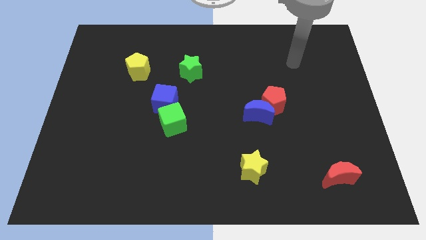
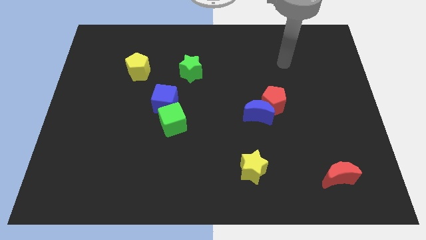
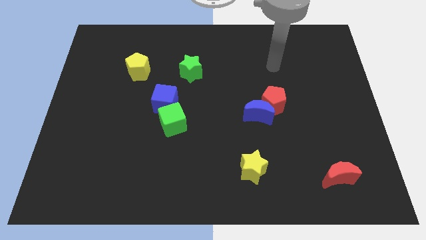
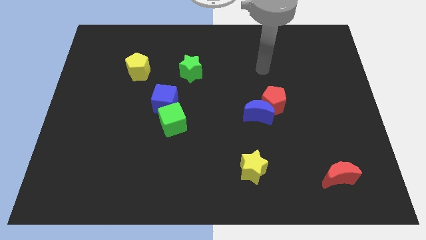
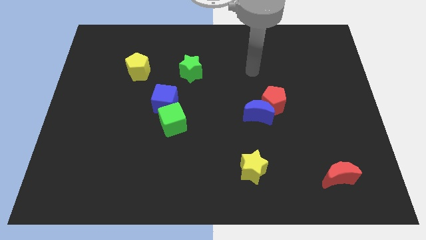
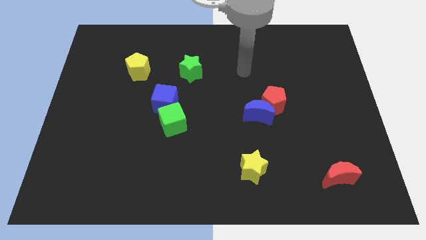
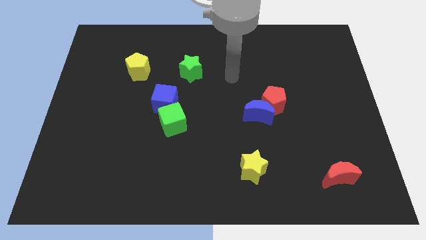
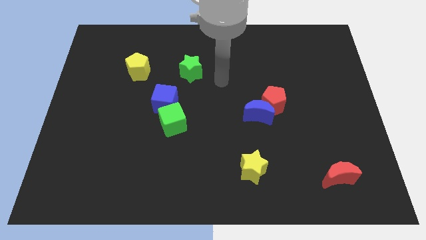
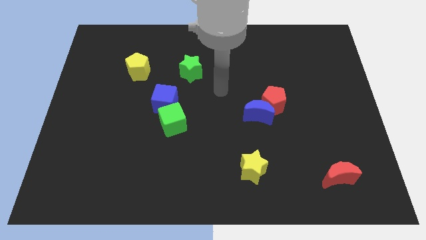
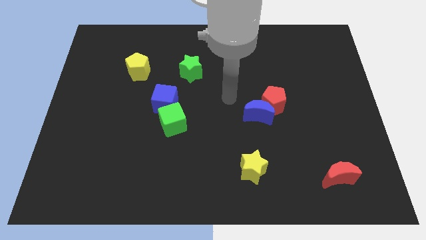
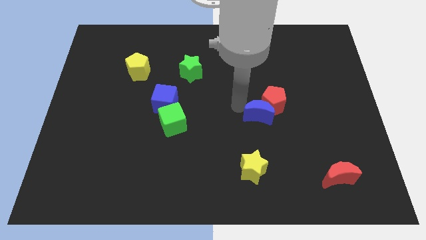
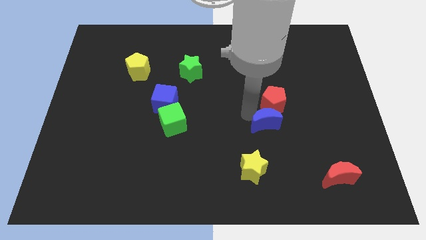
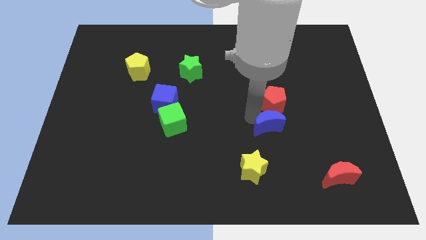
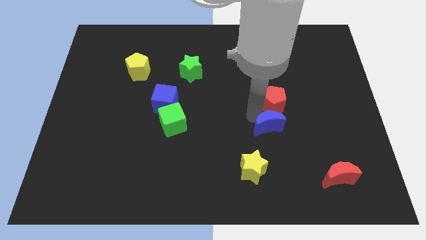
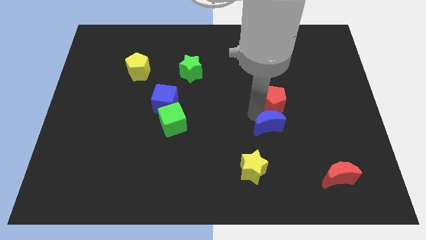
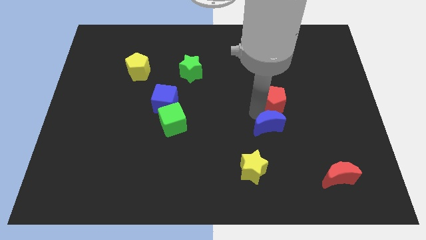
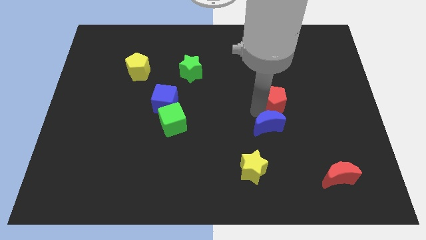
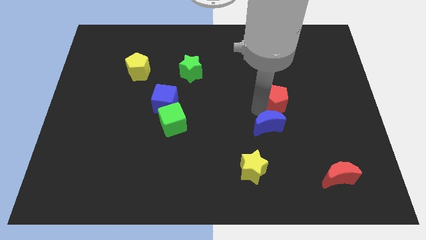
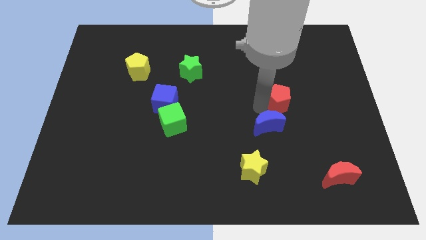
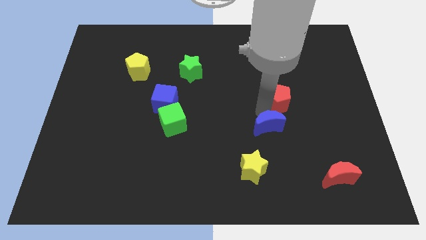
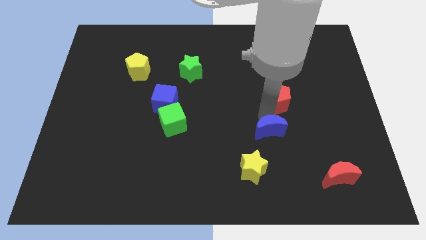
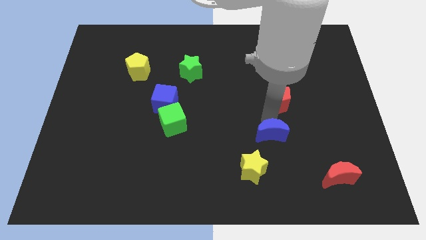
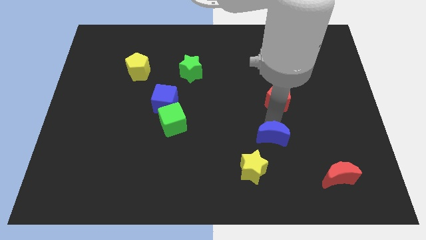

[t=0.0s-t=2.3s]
separate the red pentagon from the blue moon

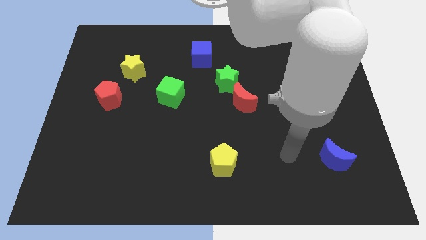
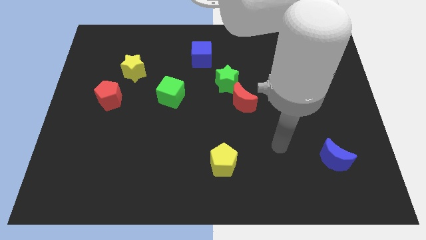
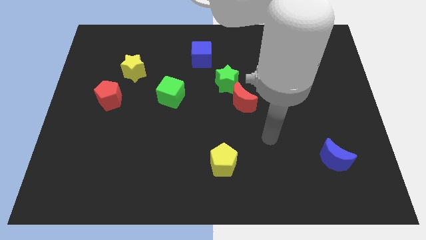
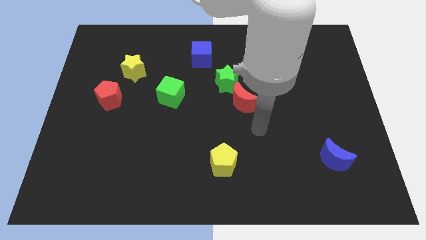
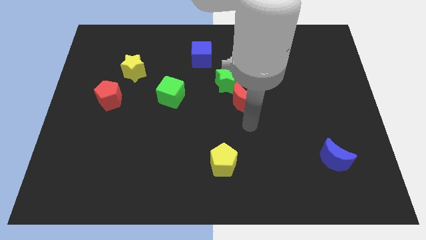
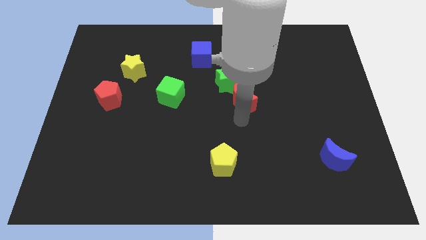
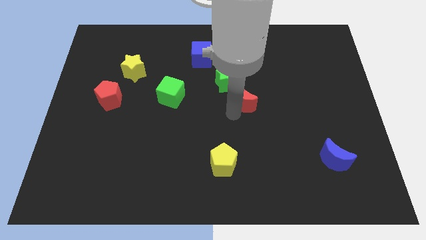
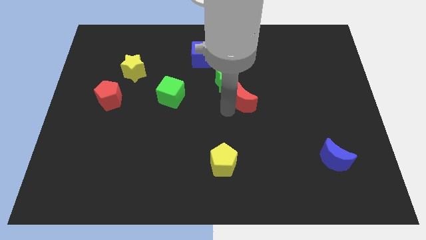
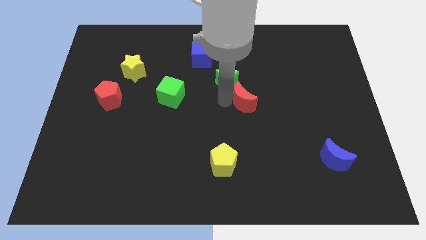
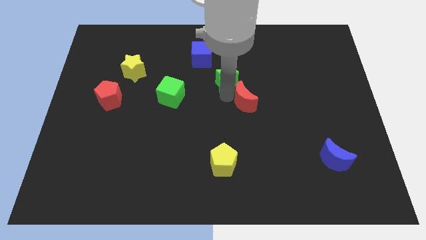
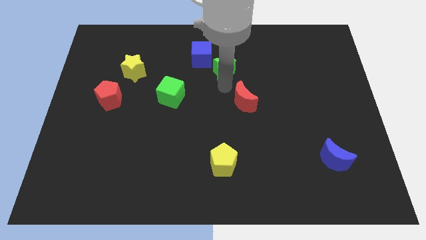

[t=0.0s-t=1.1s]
separate the red moon from the green star

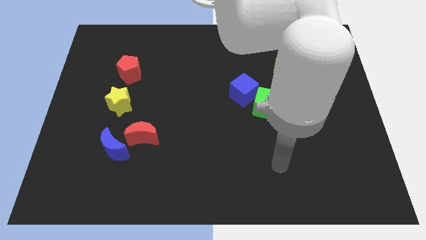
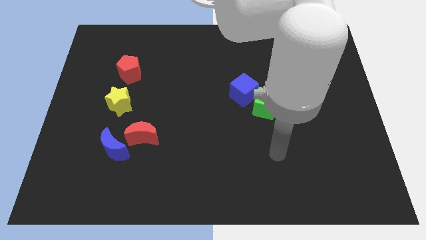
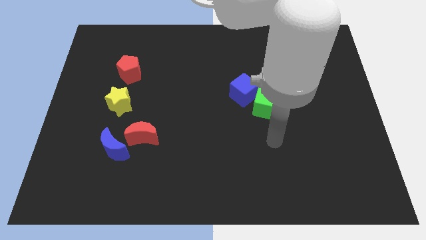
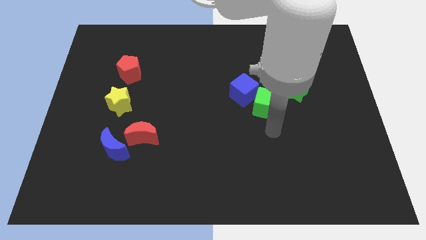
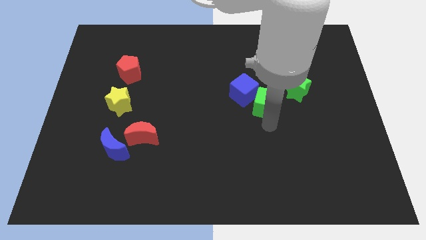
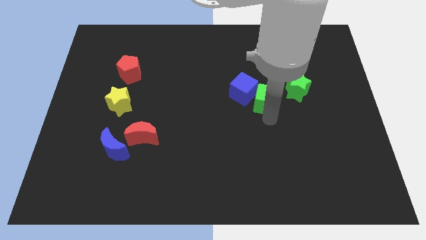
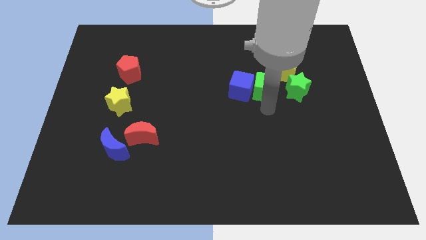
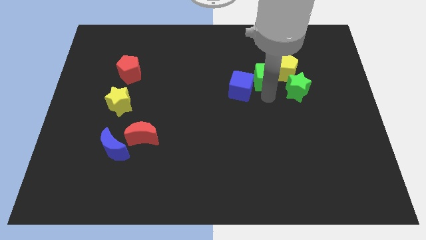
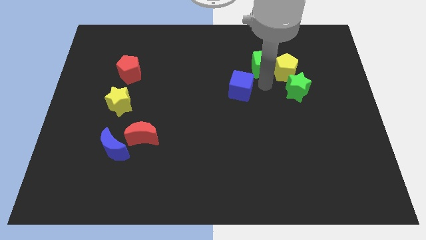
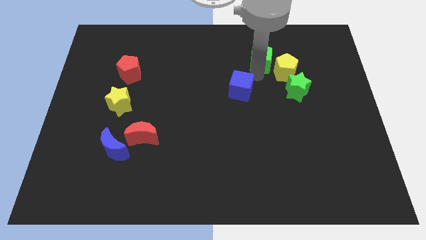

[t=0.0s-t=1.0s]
move the blue cube away from the green cube

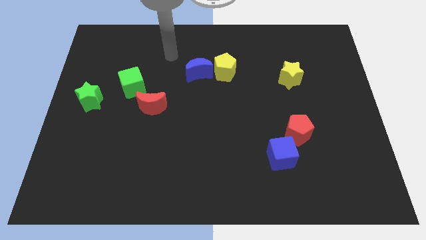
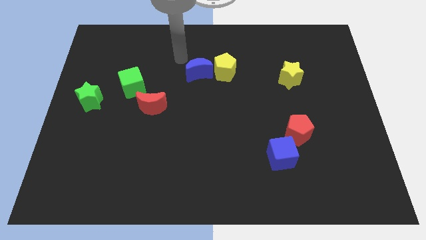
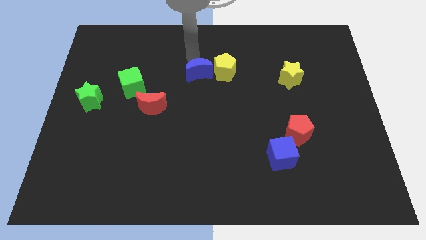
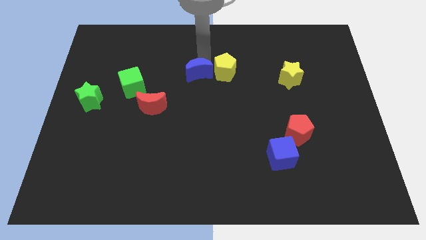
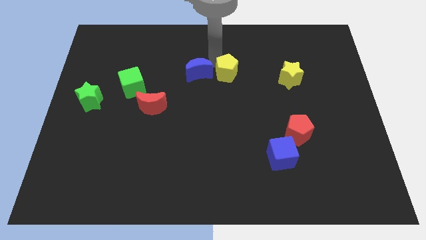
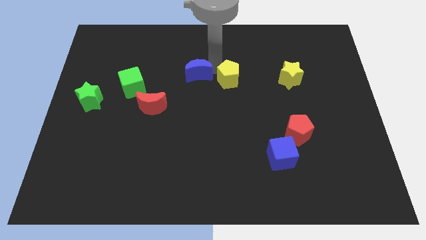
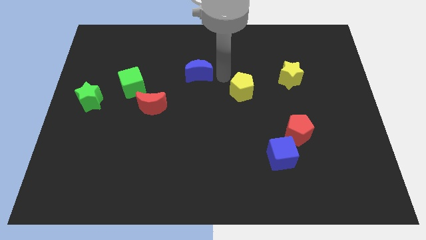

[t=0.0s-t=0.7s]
separate the blue moon from the yellow pentagon

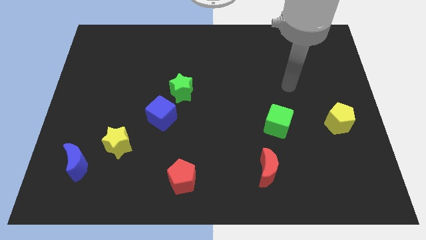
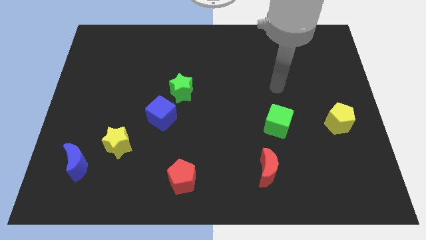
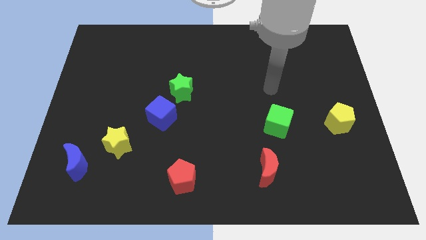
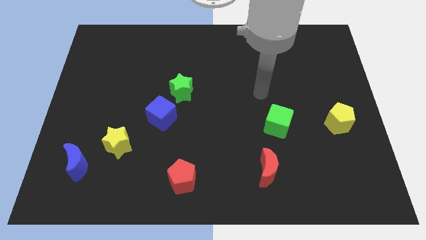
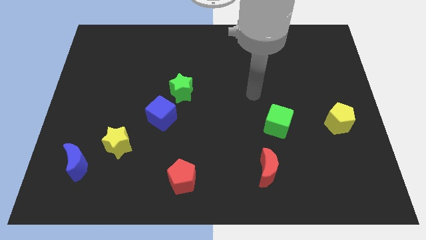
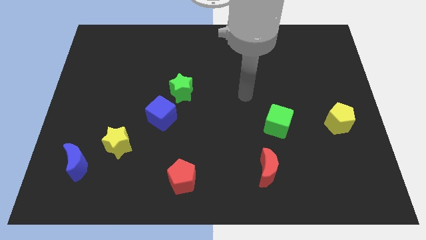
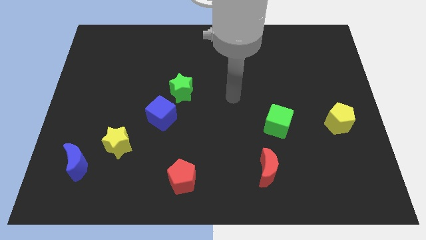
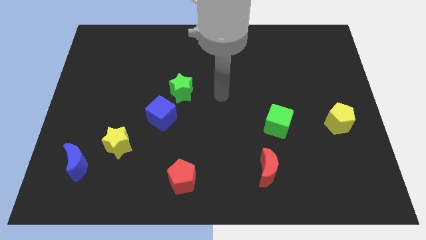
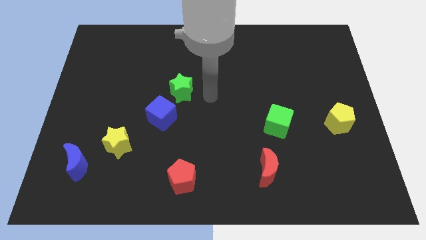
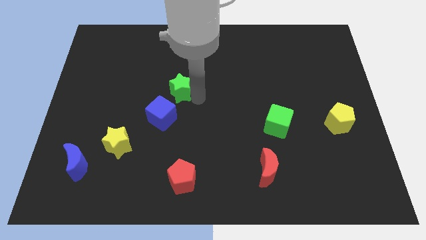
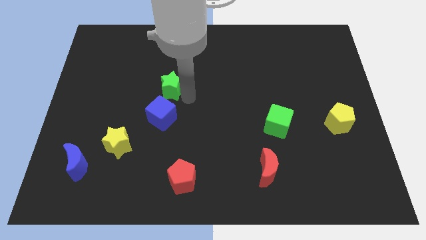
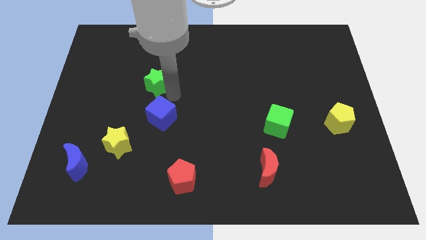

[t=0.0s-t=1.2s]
separate the blue cube from the green star

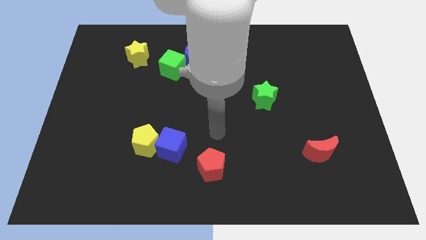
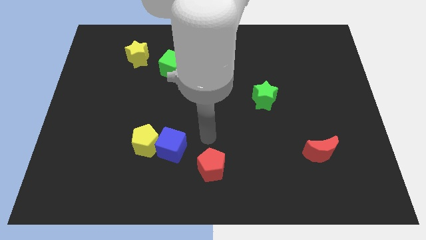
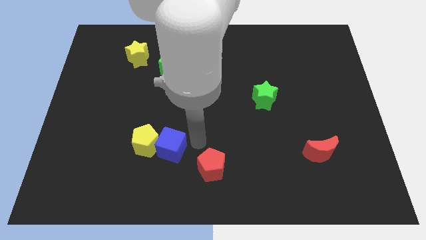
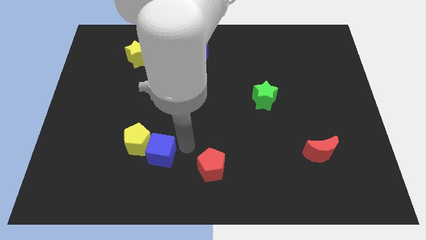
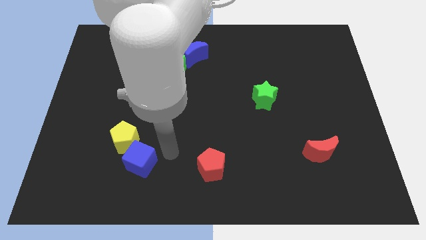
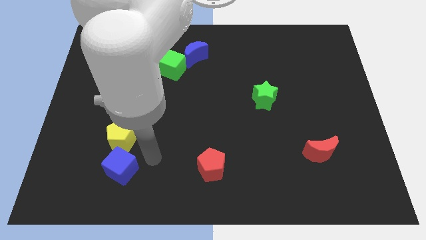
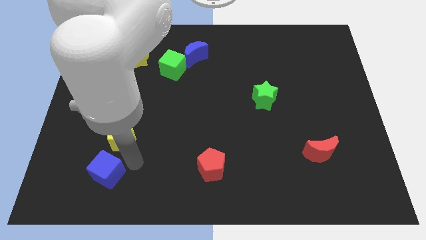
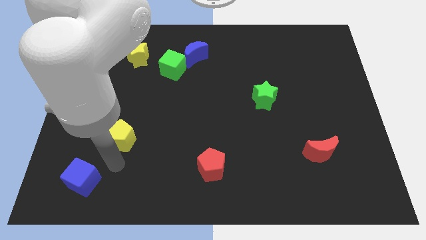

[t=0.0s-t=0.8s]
move the yellow pentagon away from the blue cube

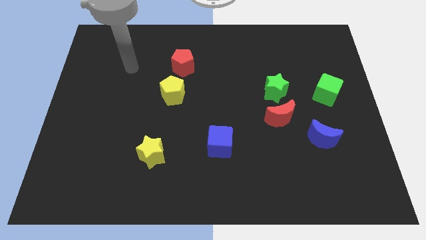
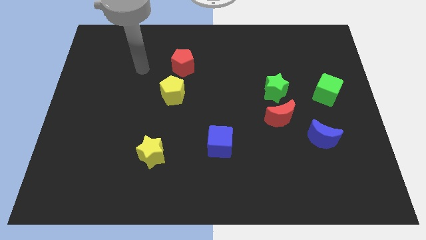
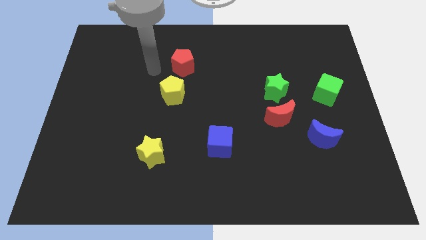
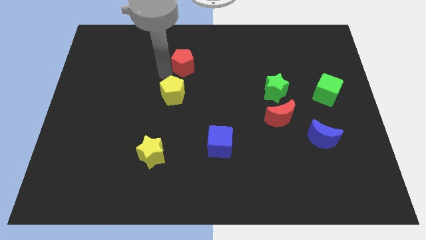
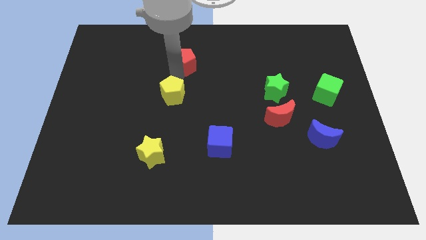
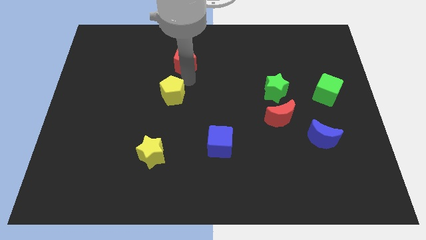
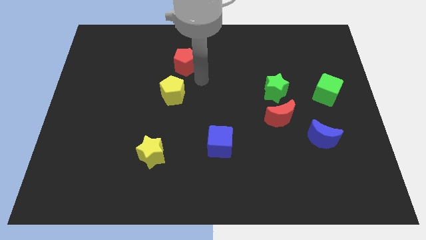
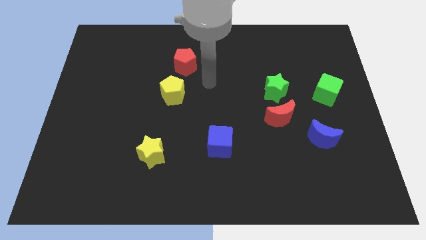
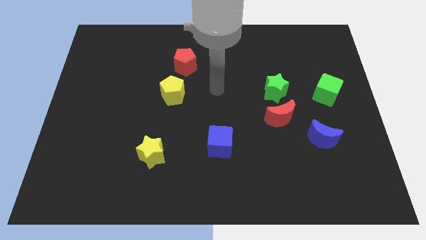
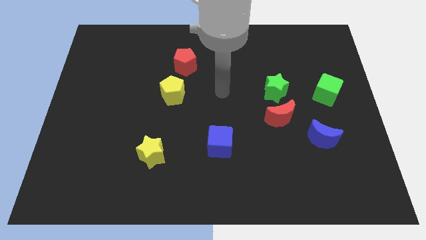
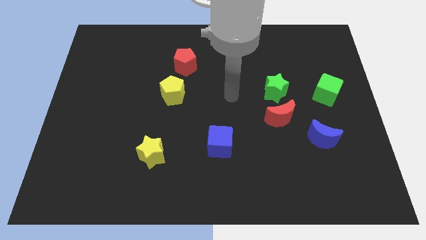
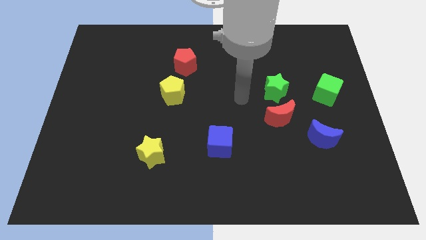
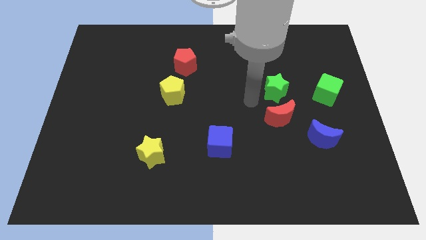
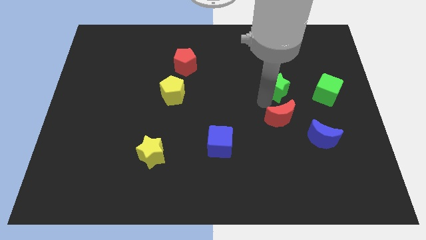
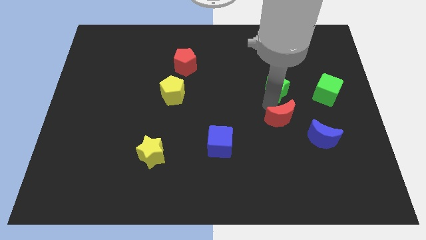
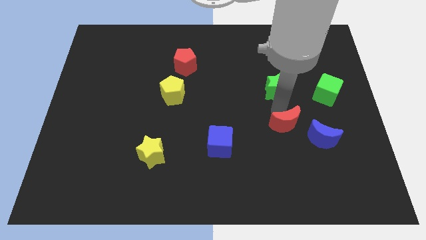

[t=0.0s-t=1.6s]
separate the green star from the red moon

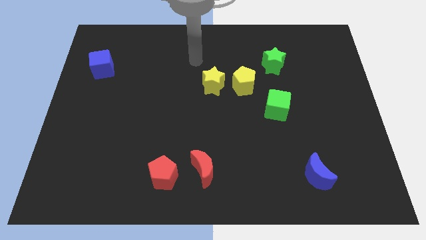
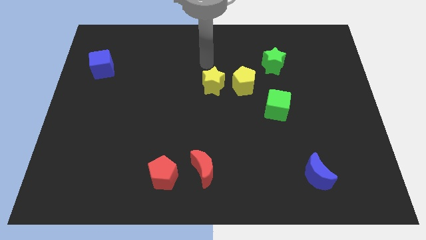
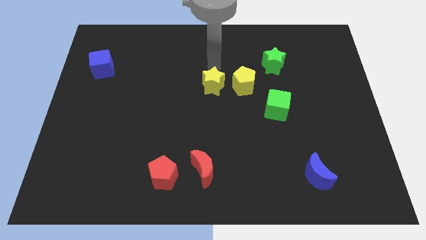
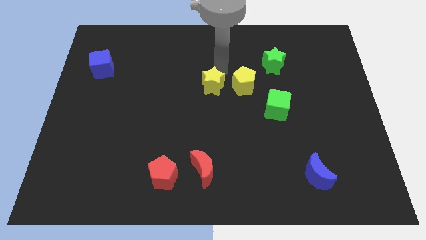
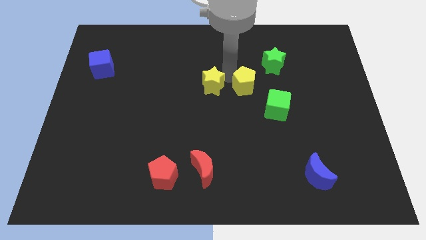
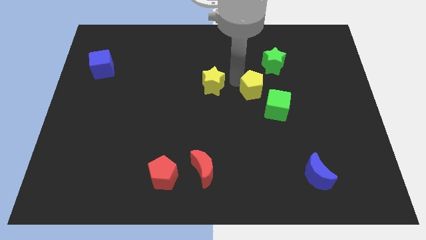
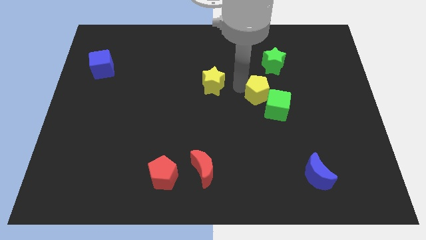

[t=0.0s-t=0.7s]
pull the yellow star apart from the yellow pentagon
